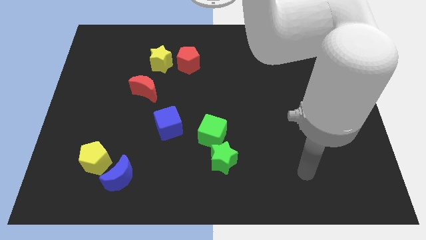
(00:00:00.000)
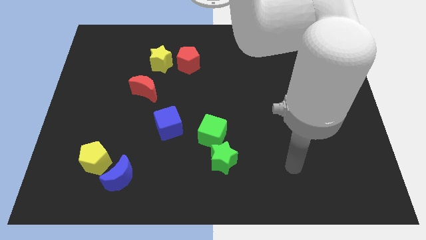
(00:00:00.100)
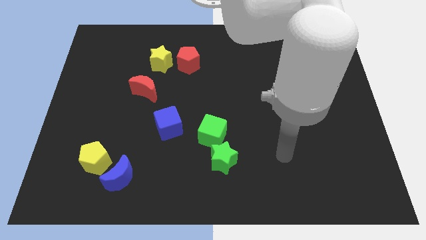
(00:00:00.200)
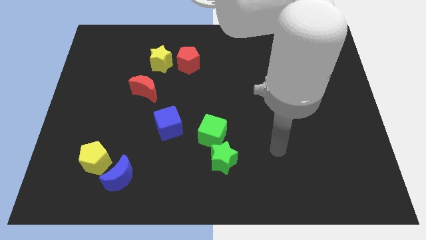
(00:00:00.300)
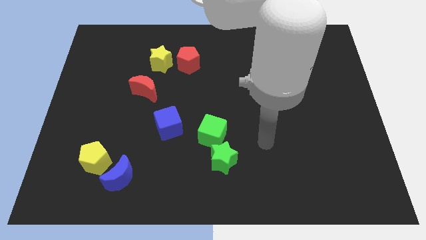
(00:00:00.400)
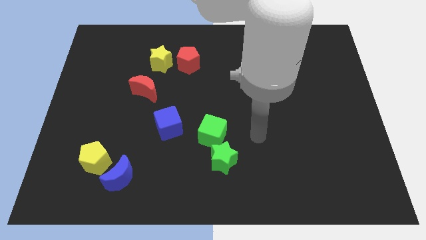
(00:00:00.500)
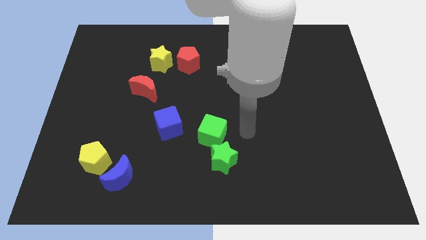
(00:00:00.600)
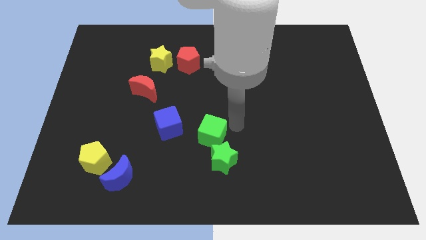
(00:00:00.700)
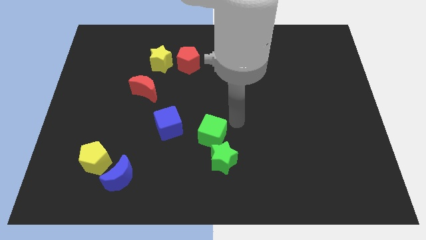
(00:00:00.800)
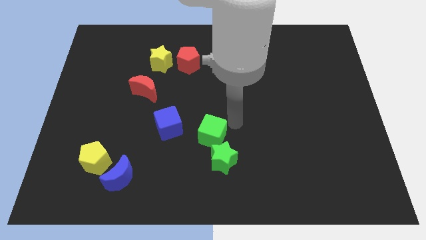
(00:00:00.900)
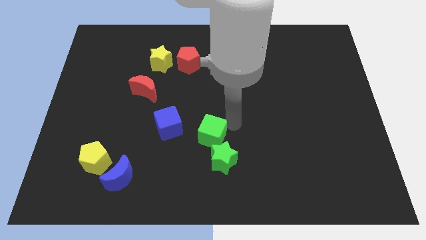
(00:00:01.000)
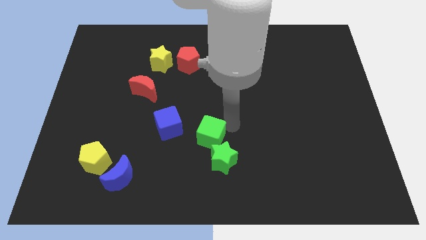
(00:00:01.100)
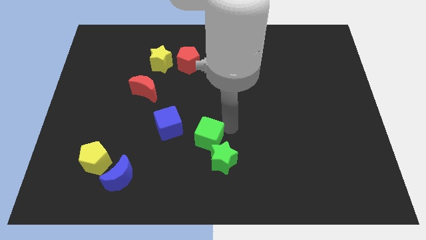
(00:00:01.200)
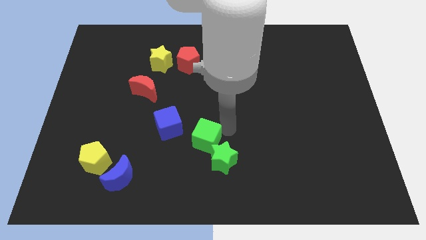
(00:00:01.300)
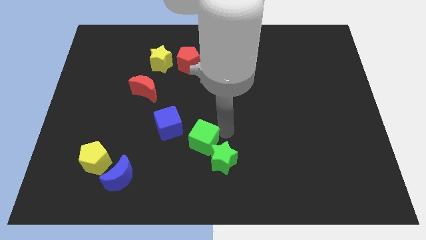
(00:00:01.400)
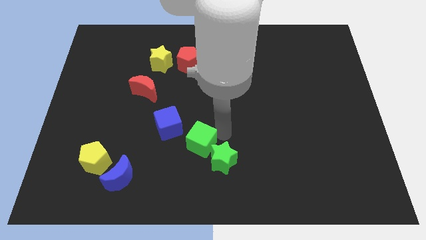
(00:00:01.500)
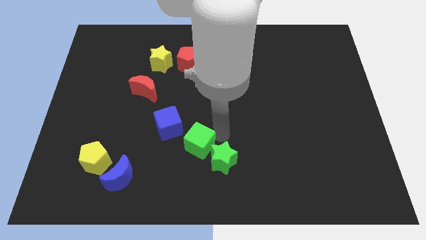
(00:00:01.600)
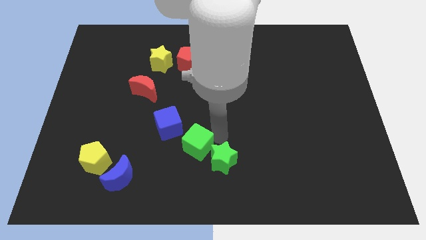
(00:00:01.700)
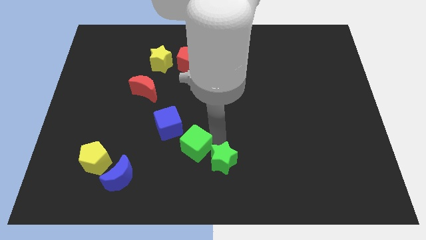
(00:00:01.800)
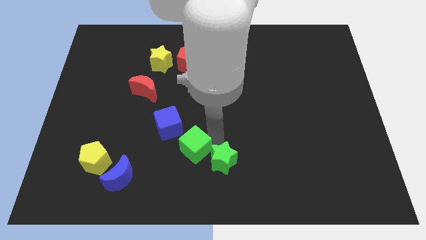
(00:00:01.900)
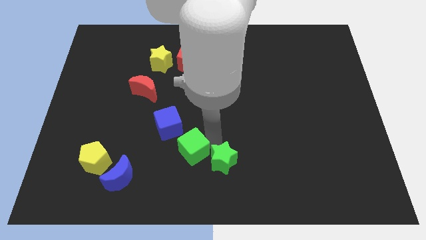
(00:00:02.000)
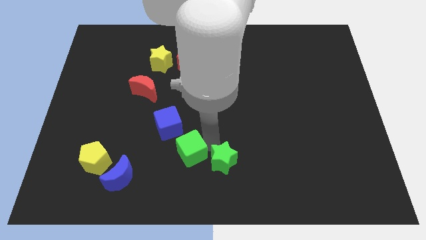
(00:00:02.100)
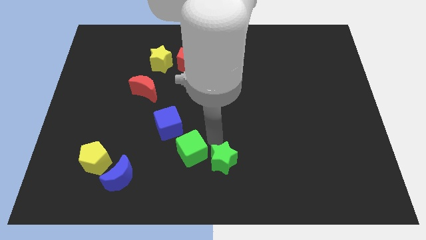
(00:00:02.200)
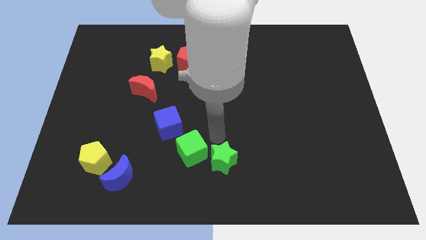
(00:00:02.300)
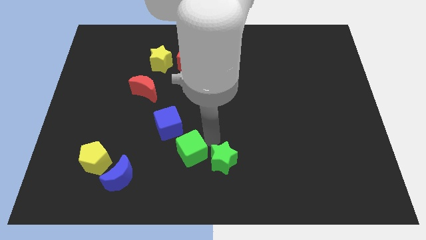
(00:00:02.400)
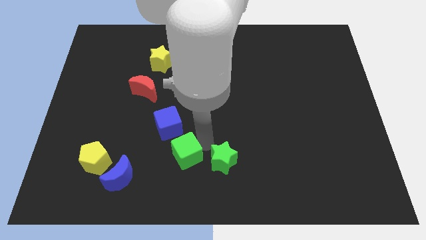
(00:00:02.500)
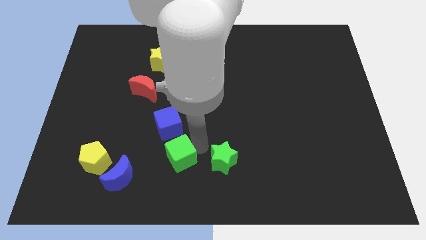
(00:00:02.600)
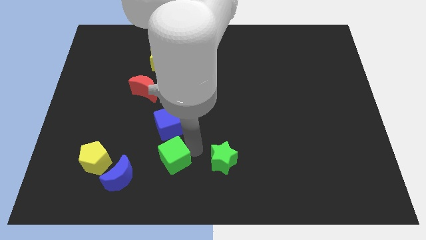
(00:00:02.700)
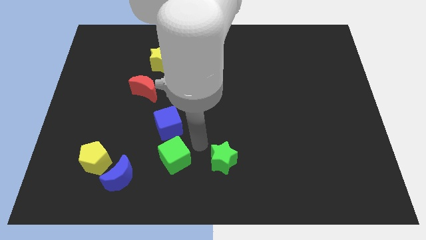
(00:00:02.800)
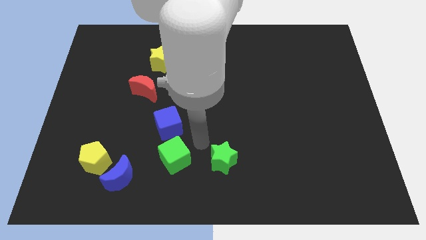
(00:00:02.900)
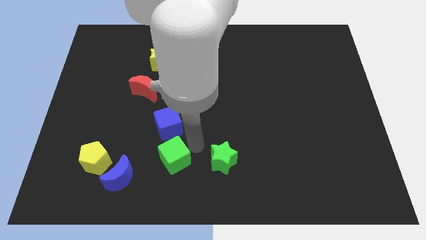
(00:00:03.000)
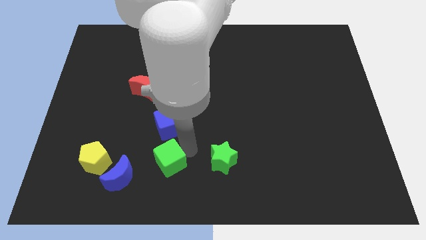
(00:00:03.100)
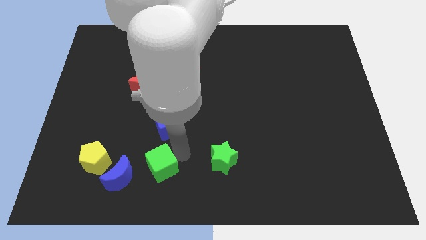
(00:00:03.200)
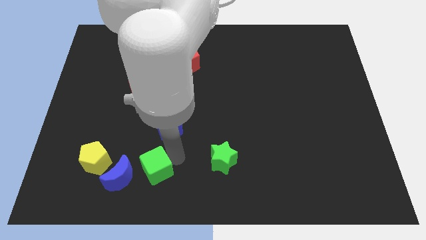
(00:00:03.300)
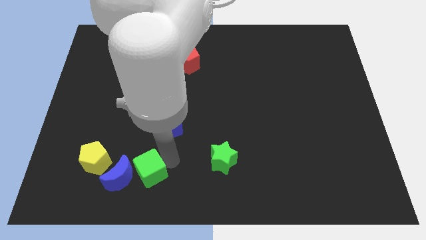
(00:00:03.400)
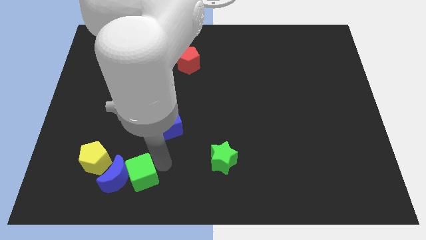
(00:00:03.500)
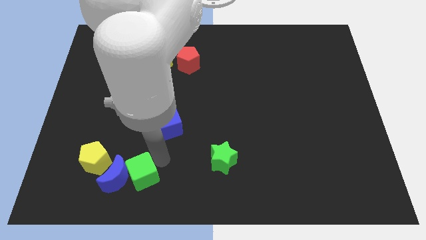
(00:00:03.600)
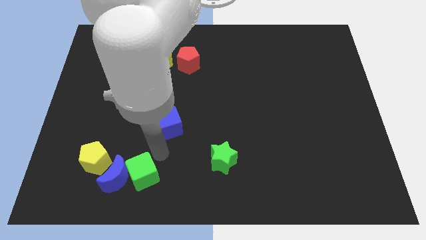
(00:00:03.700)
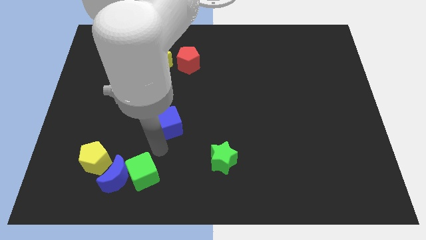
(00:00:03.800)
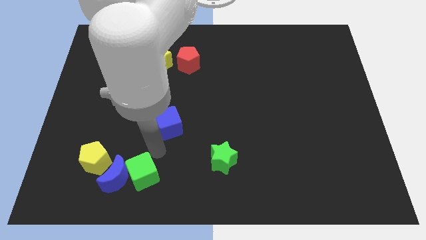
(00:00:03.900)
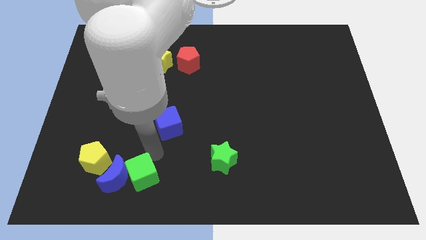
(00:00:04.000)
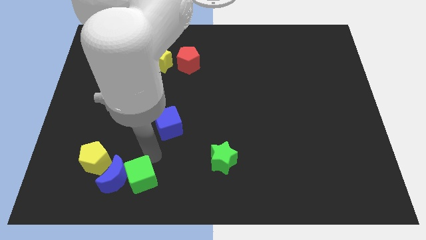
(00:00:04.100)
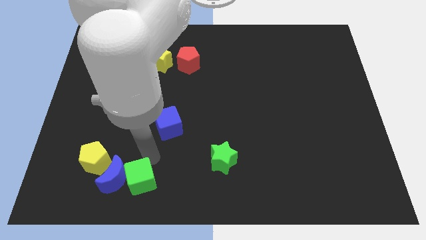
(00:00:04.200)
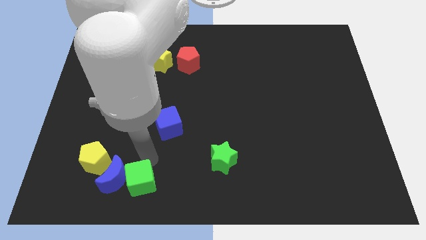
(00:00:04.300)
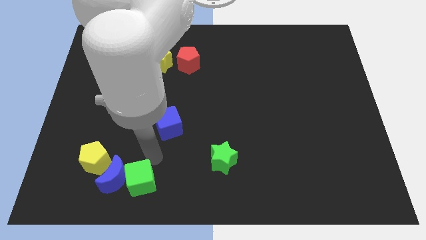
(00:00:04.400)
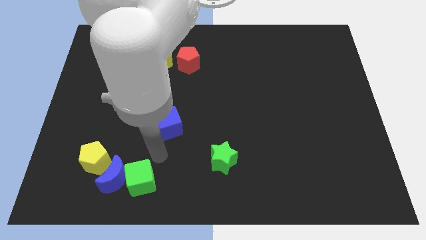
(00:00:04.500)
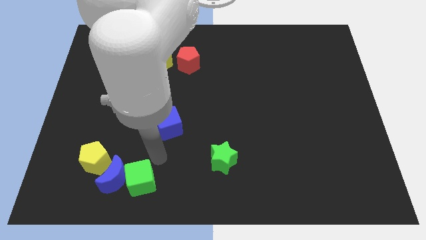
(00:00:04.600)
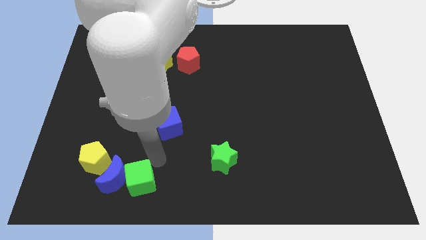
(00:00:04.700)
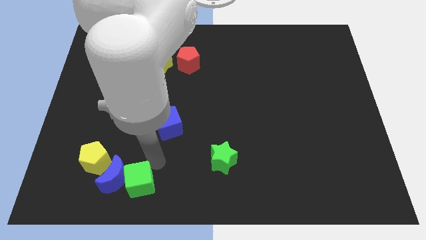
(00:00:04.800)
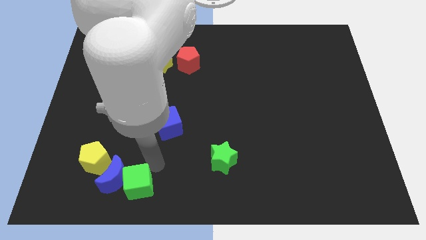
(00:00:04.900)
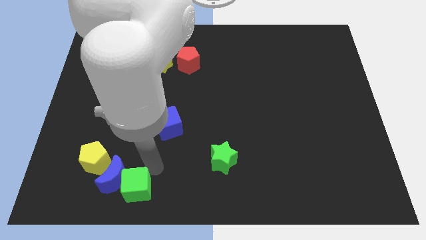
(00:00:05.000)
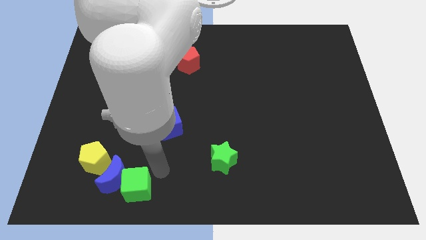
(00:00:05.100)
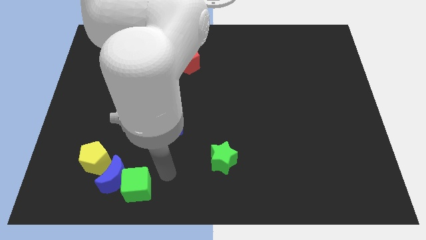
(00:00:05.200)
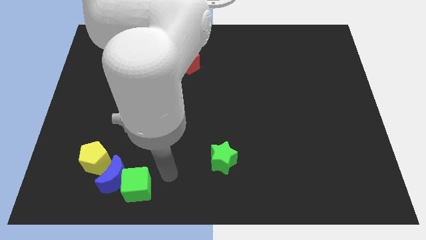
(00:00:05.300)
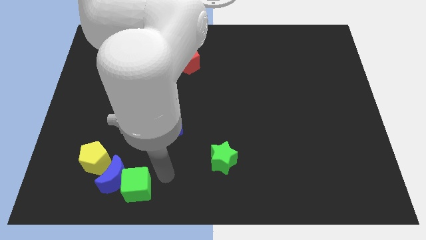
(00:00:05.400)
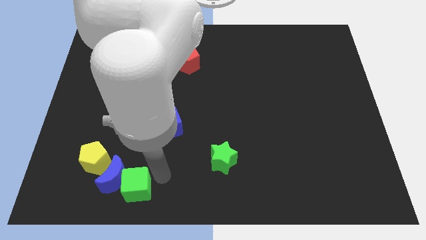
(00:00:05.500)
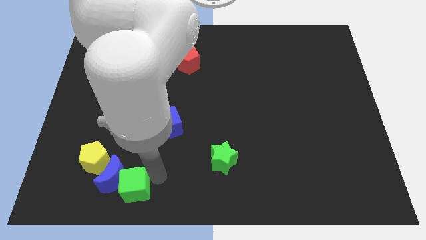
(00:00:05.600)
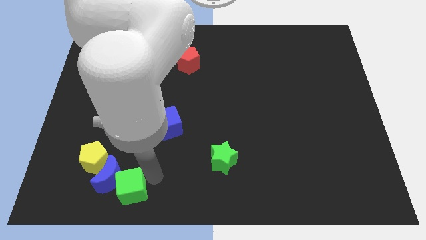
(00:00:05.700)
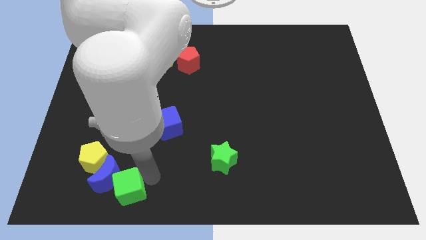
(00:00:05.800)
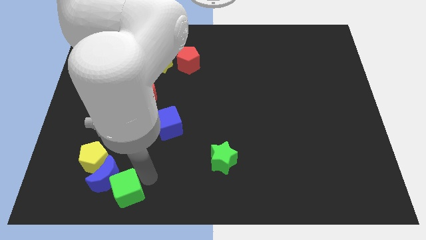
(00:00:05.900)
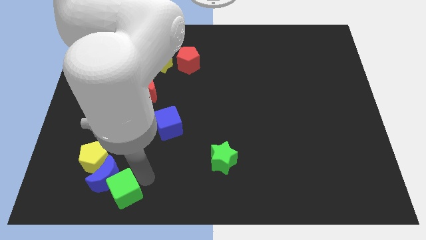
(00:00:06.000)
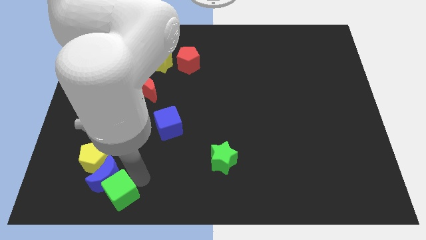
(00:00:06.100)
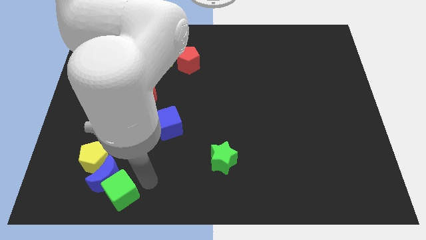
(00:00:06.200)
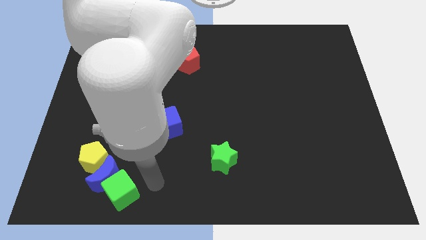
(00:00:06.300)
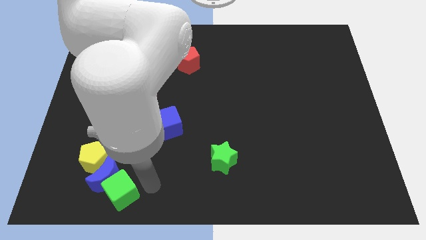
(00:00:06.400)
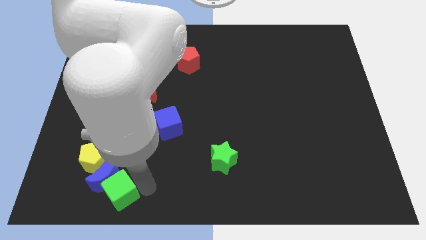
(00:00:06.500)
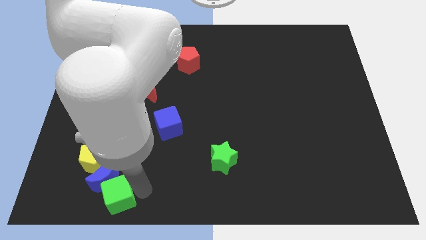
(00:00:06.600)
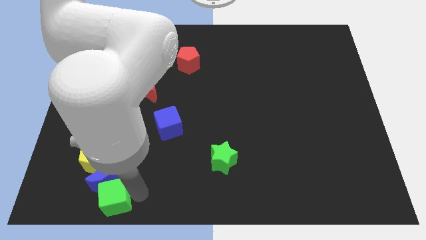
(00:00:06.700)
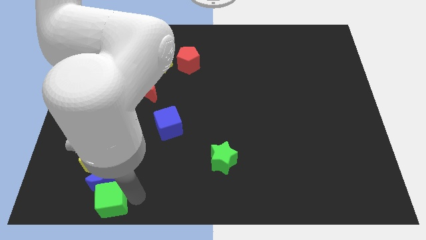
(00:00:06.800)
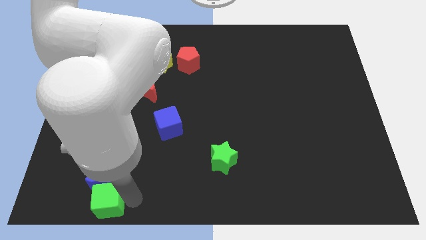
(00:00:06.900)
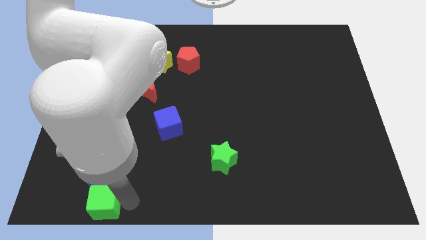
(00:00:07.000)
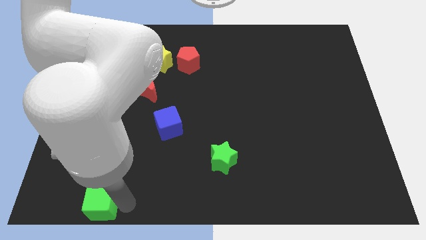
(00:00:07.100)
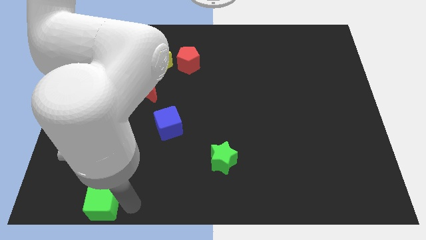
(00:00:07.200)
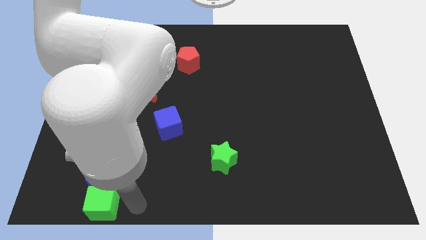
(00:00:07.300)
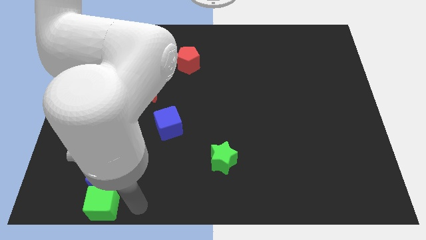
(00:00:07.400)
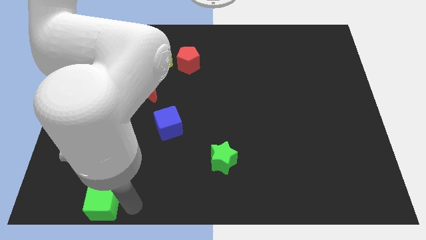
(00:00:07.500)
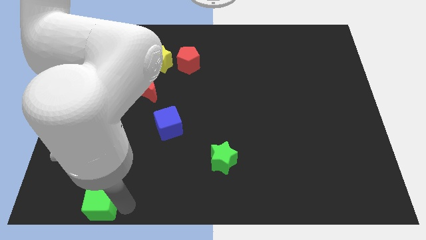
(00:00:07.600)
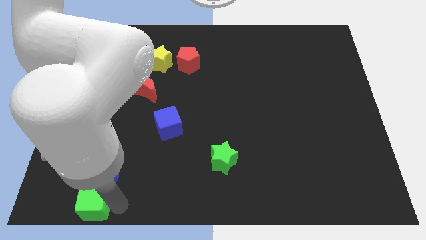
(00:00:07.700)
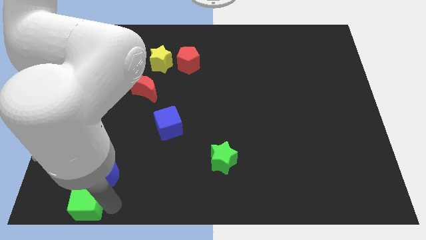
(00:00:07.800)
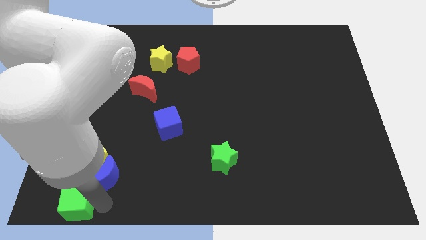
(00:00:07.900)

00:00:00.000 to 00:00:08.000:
slide the green cube to the bottom left corner
